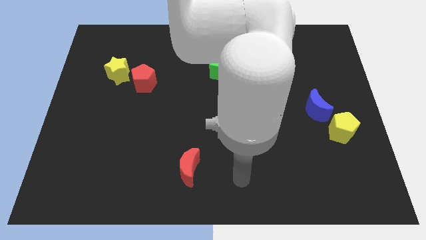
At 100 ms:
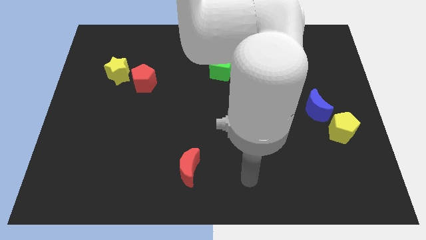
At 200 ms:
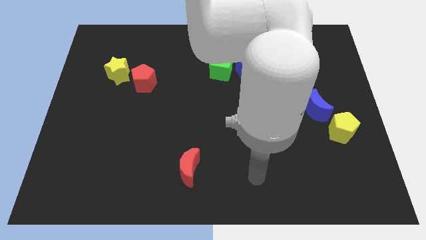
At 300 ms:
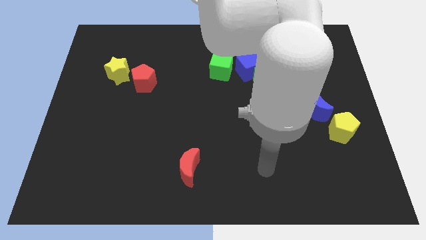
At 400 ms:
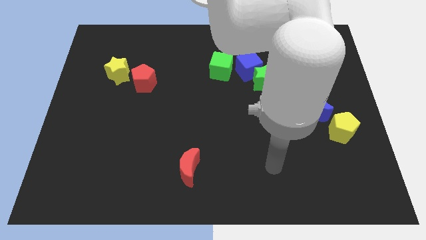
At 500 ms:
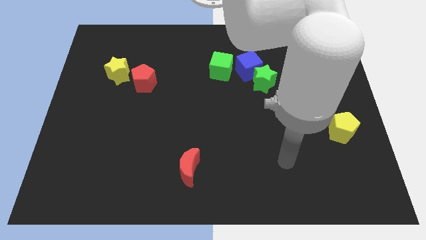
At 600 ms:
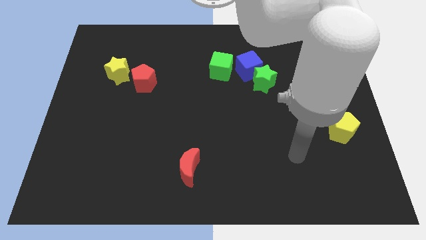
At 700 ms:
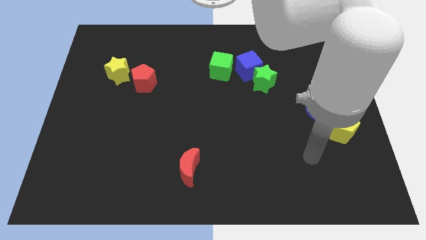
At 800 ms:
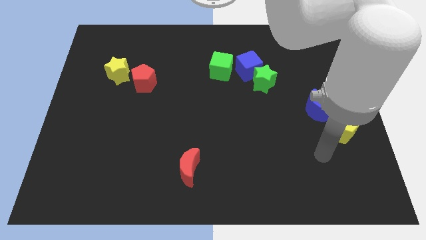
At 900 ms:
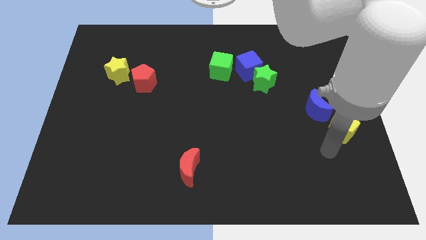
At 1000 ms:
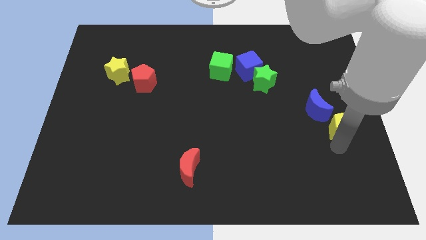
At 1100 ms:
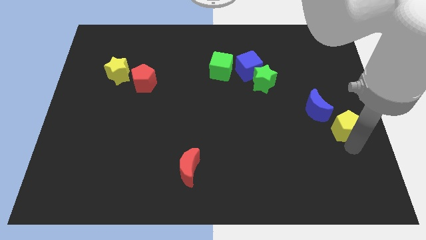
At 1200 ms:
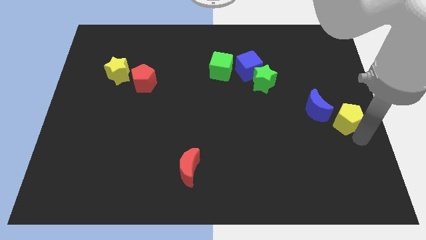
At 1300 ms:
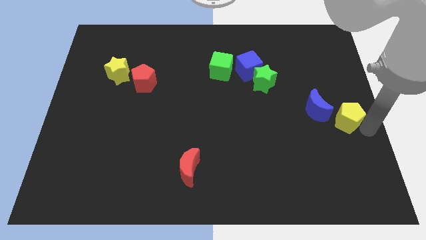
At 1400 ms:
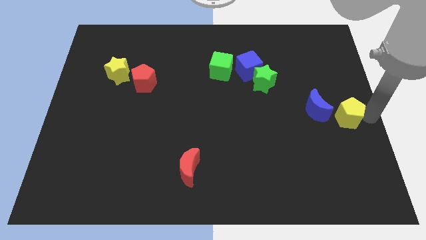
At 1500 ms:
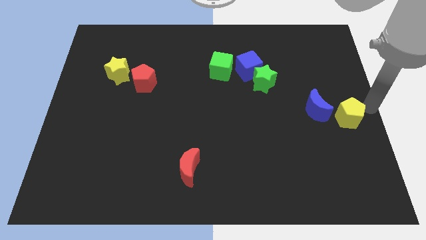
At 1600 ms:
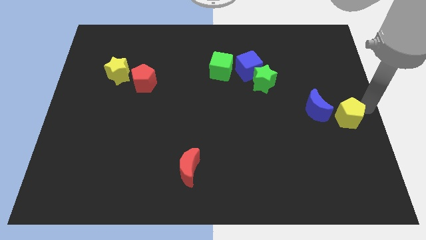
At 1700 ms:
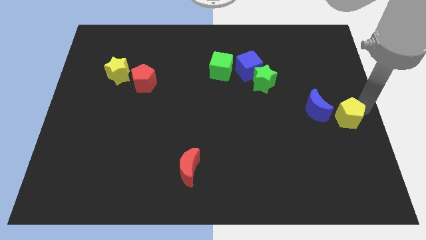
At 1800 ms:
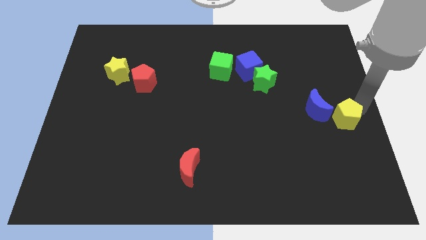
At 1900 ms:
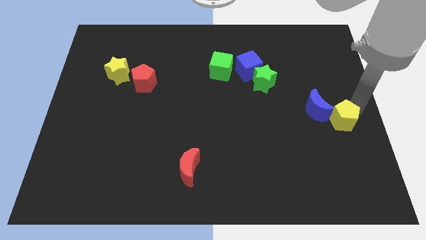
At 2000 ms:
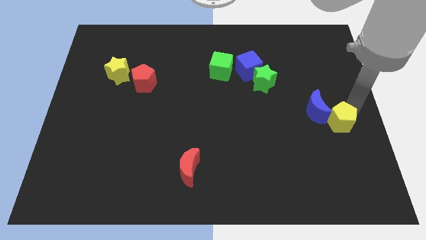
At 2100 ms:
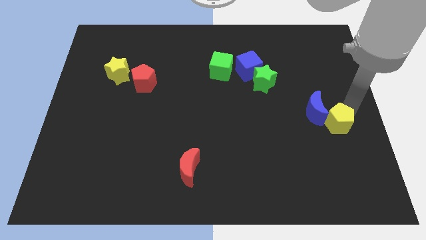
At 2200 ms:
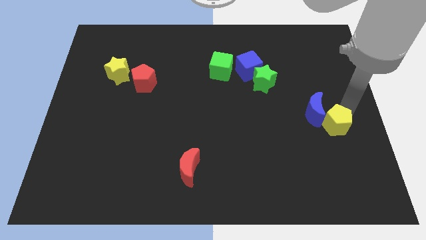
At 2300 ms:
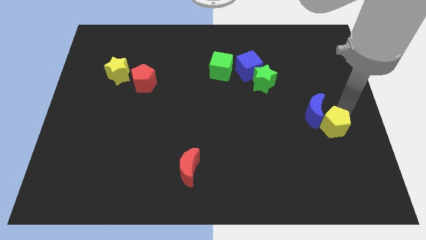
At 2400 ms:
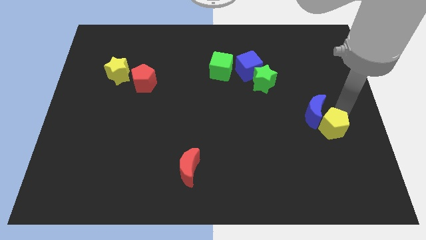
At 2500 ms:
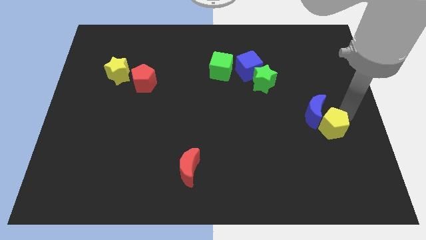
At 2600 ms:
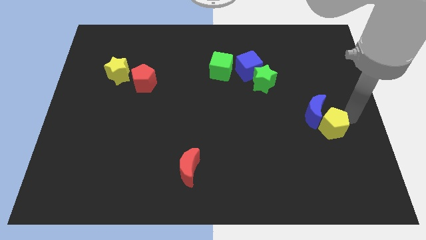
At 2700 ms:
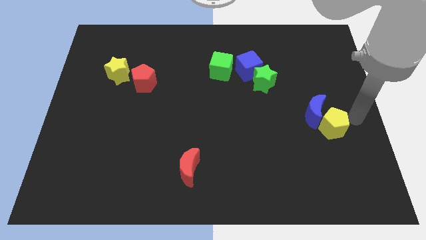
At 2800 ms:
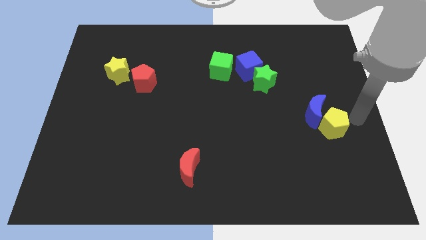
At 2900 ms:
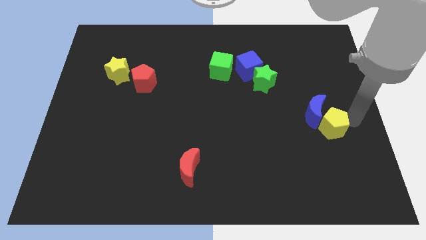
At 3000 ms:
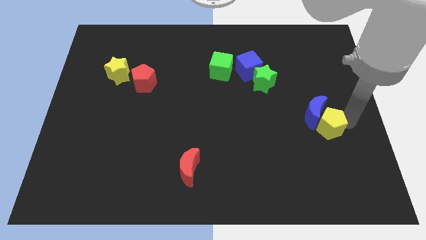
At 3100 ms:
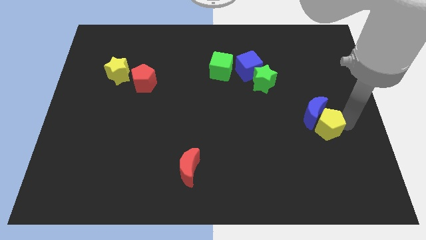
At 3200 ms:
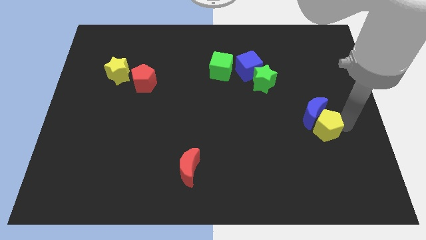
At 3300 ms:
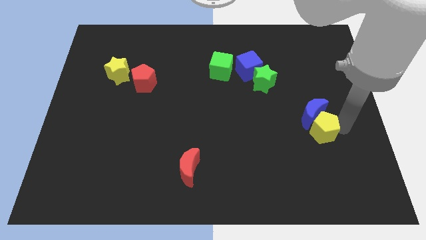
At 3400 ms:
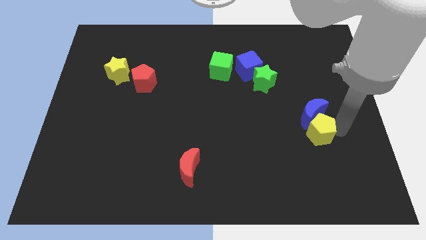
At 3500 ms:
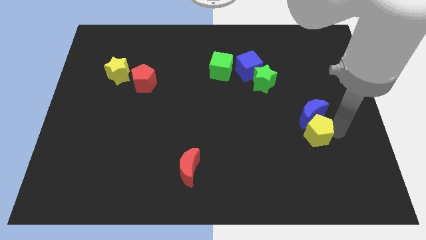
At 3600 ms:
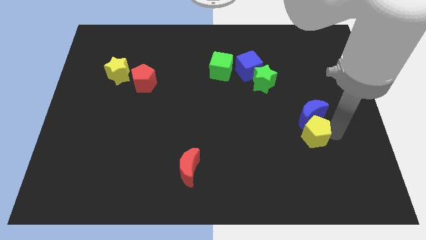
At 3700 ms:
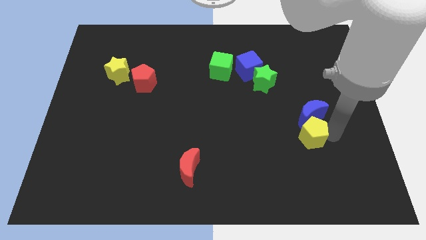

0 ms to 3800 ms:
push the yellow pentagon somewhat left

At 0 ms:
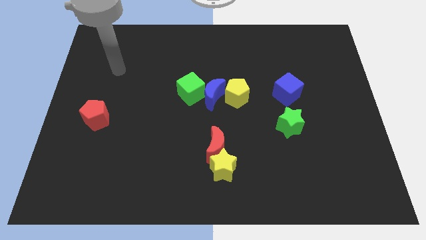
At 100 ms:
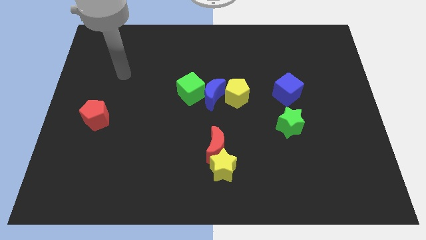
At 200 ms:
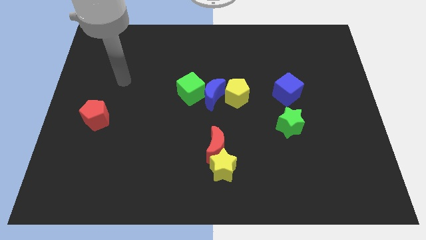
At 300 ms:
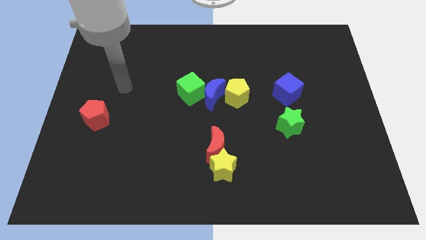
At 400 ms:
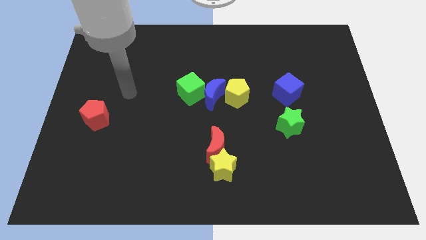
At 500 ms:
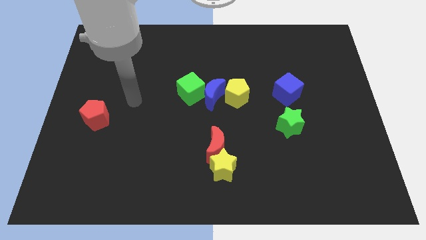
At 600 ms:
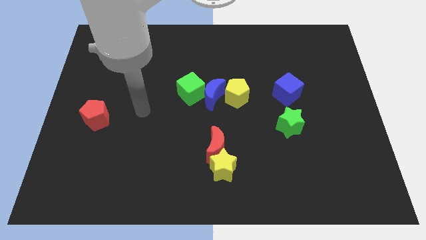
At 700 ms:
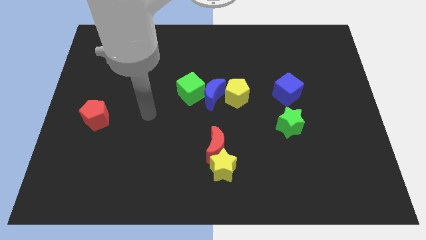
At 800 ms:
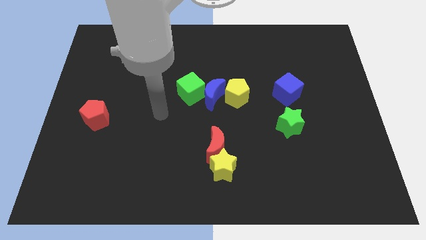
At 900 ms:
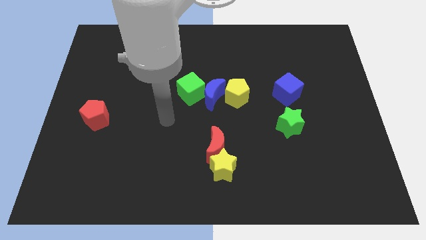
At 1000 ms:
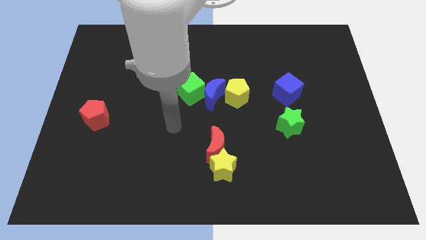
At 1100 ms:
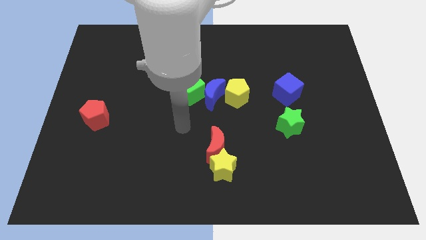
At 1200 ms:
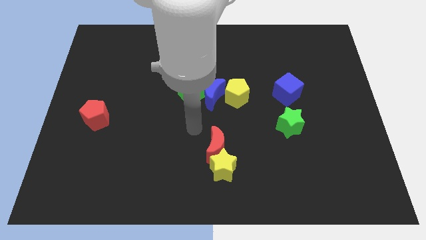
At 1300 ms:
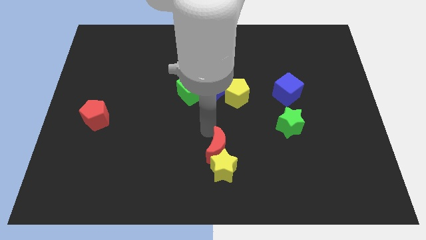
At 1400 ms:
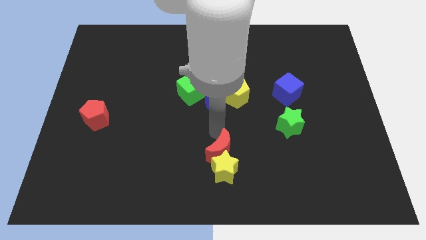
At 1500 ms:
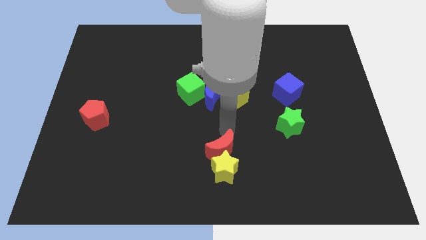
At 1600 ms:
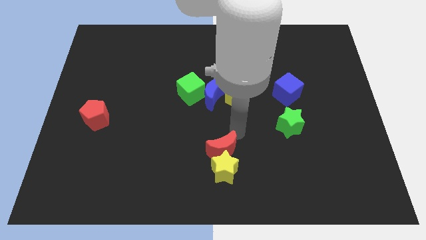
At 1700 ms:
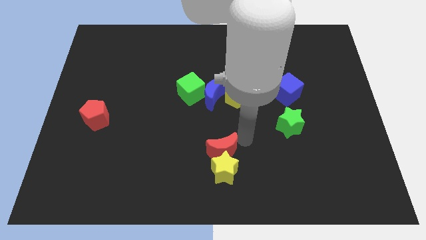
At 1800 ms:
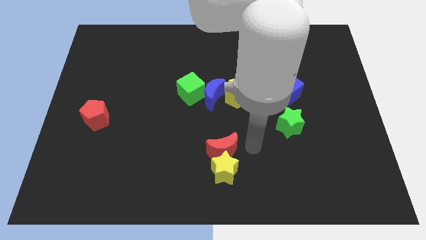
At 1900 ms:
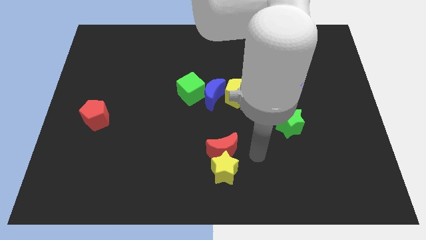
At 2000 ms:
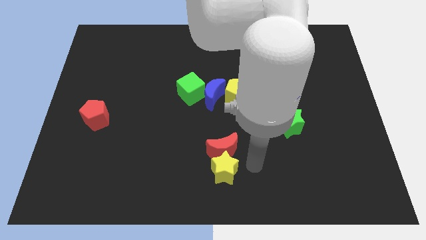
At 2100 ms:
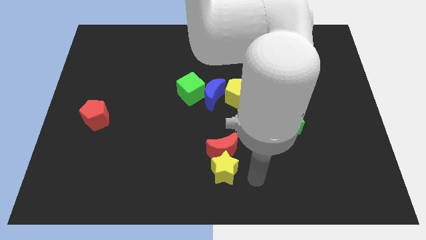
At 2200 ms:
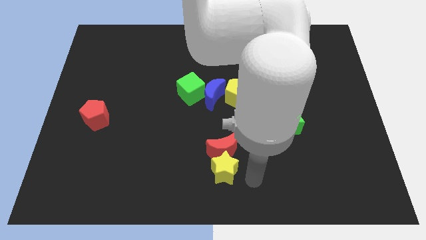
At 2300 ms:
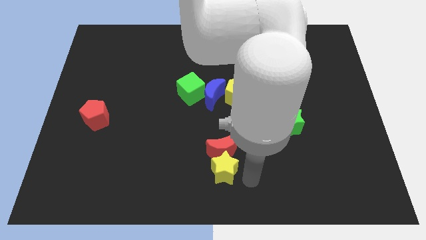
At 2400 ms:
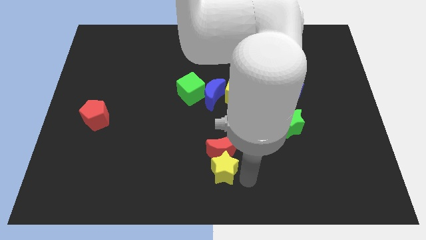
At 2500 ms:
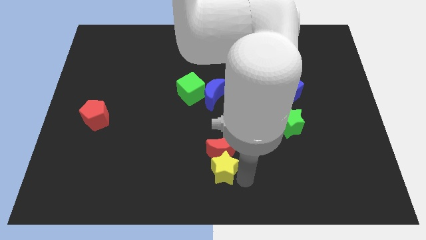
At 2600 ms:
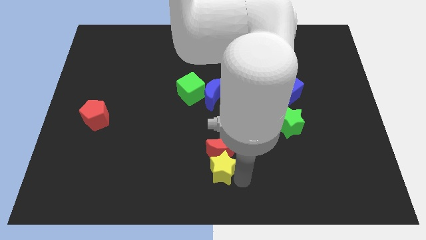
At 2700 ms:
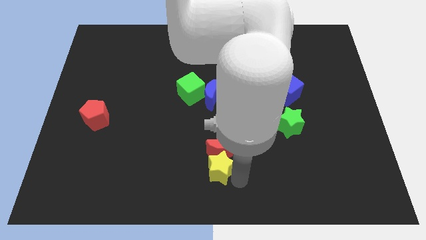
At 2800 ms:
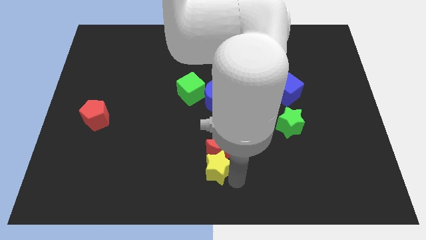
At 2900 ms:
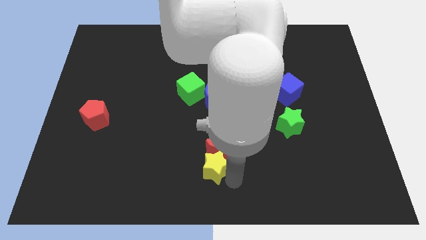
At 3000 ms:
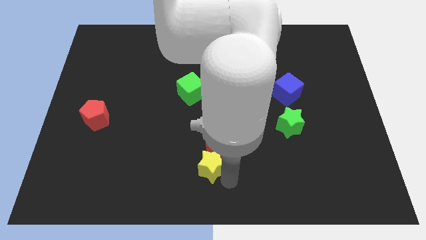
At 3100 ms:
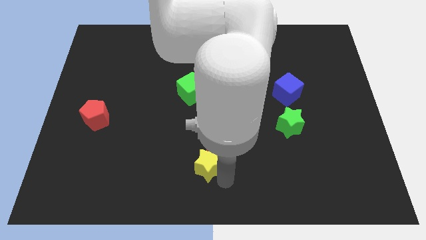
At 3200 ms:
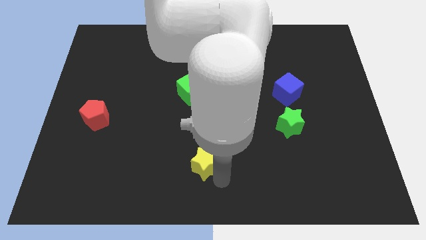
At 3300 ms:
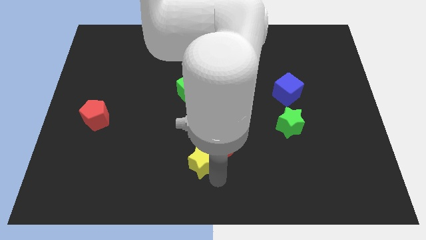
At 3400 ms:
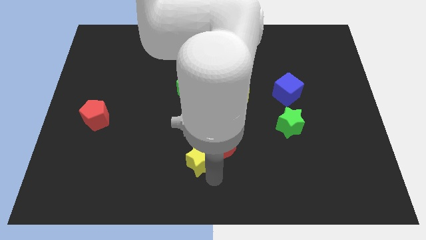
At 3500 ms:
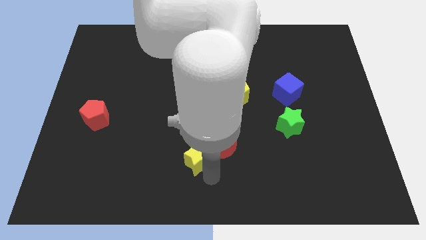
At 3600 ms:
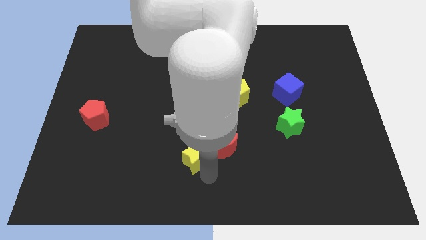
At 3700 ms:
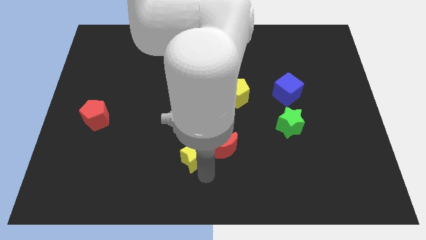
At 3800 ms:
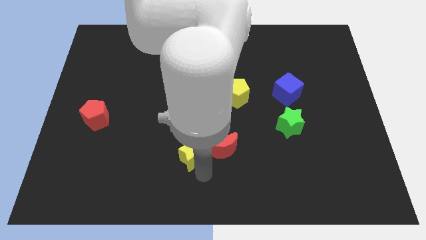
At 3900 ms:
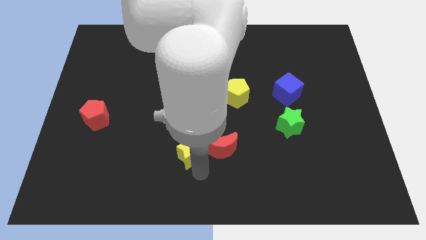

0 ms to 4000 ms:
slightly slide the yellow star up and to the left diagonally

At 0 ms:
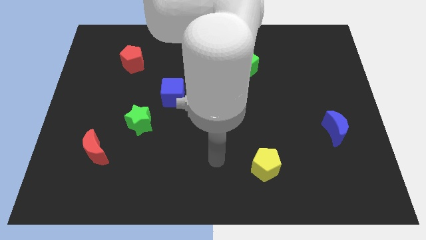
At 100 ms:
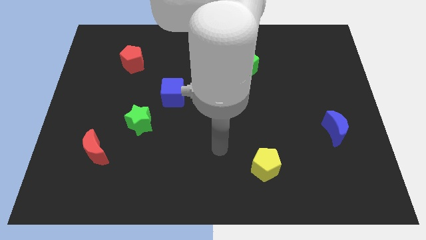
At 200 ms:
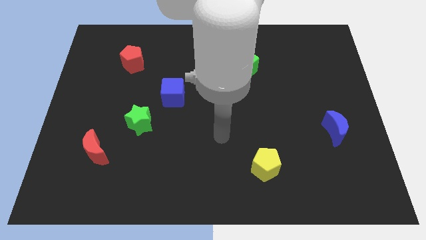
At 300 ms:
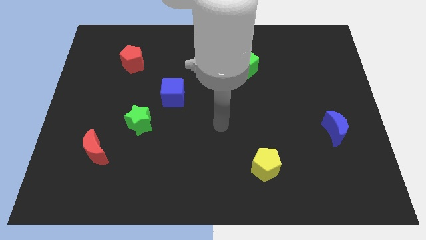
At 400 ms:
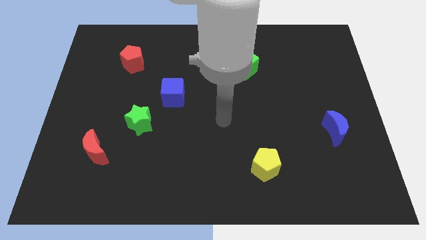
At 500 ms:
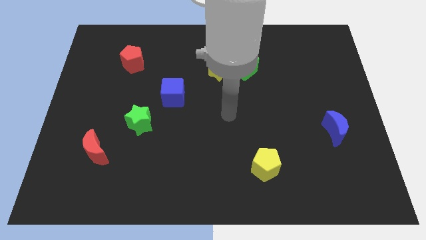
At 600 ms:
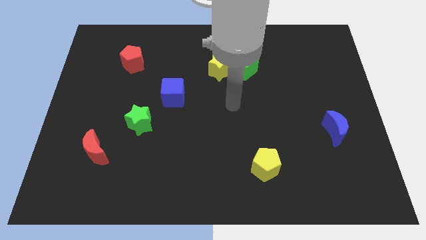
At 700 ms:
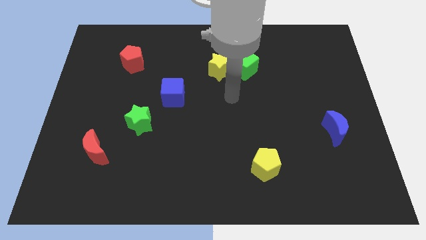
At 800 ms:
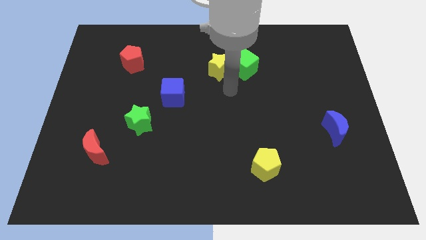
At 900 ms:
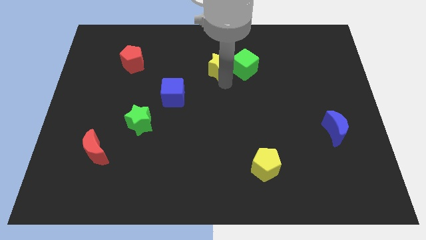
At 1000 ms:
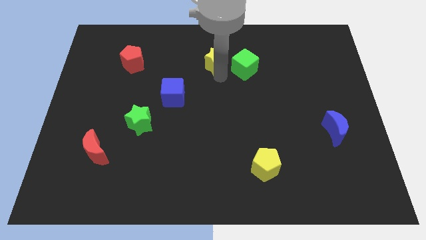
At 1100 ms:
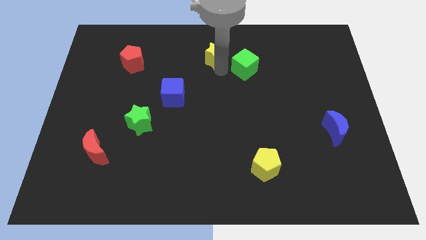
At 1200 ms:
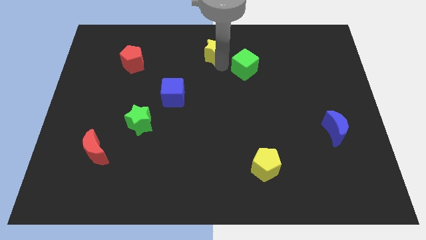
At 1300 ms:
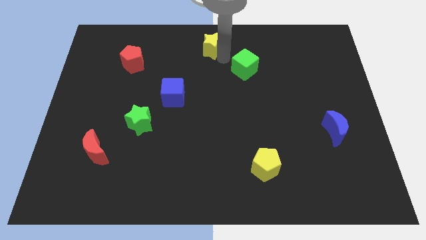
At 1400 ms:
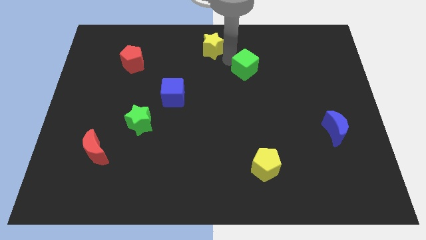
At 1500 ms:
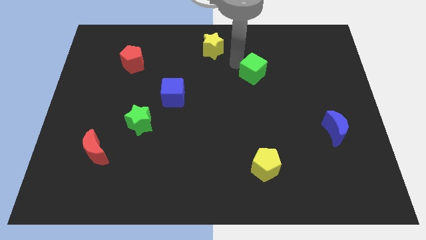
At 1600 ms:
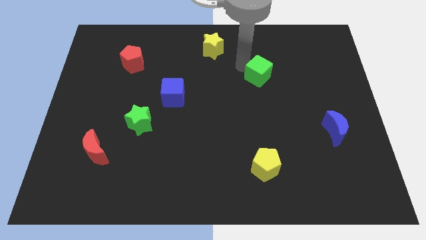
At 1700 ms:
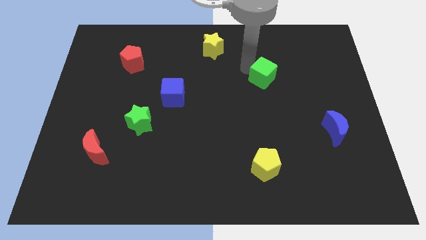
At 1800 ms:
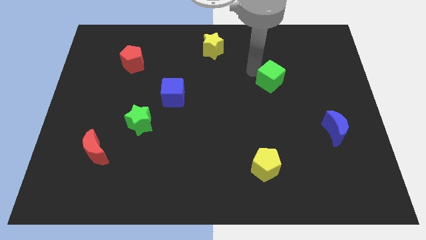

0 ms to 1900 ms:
move the green cube a bit downwards and right
